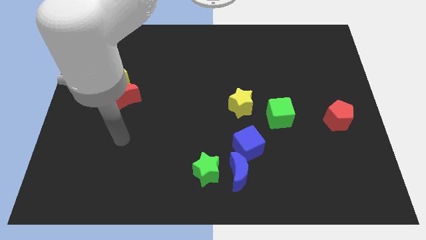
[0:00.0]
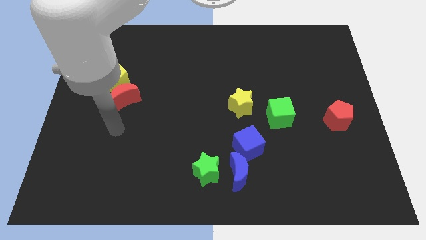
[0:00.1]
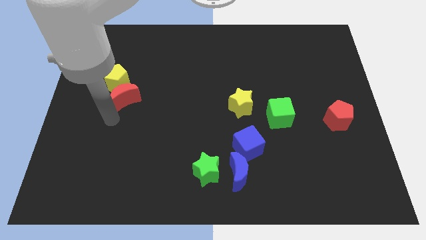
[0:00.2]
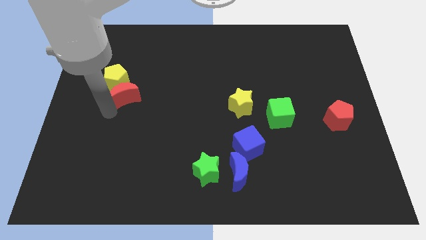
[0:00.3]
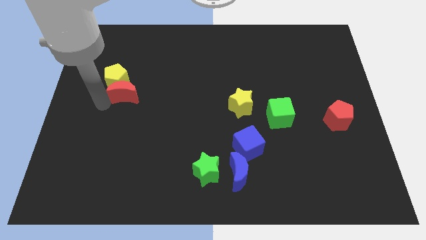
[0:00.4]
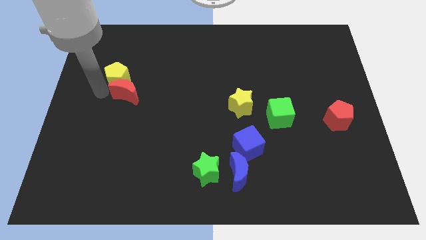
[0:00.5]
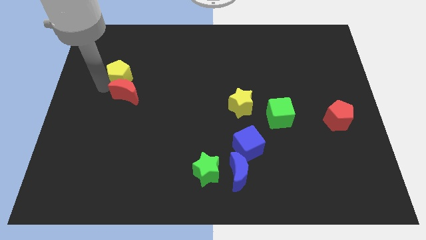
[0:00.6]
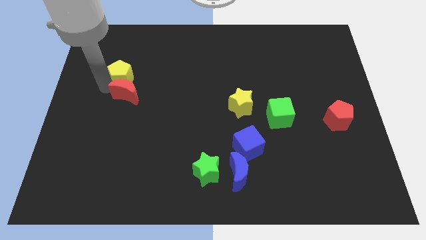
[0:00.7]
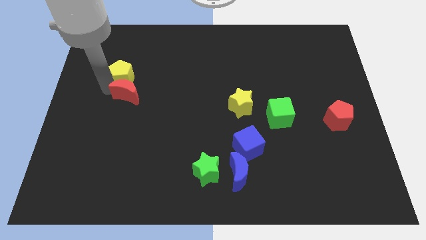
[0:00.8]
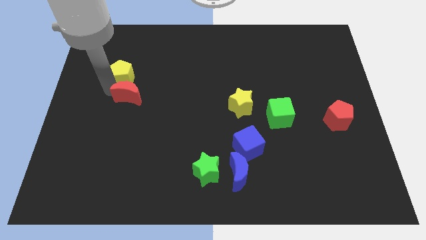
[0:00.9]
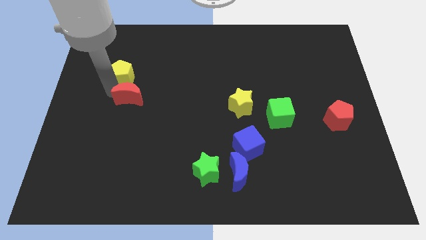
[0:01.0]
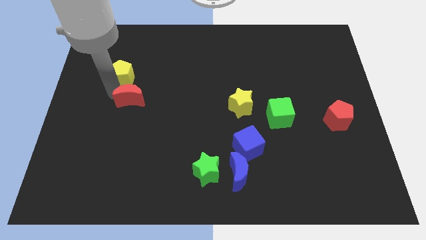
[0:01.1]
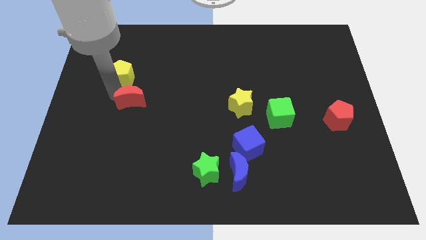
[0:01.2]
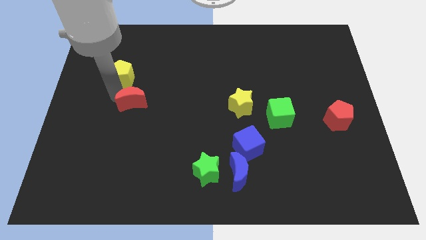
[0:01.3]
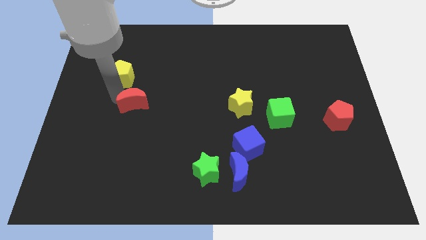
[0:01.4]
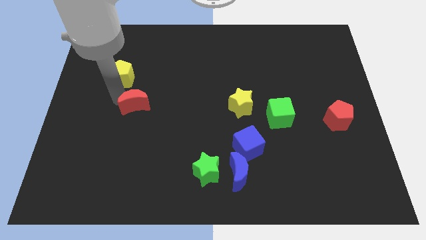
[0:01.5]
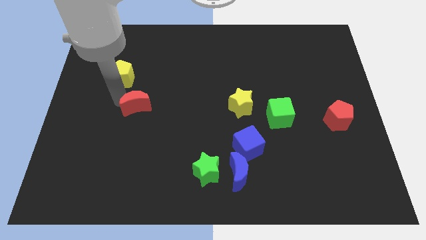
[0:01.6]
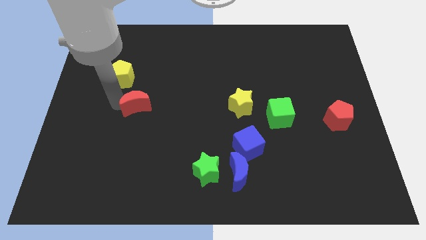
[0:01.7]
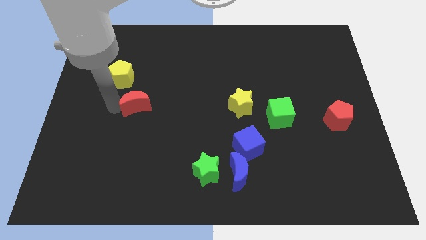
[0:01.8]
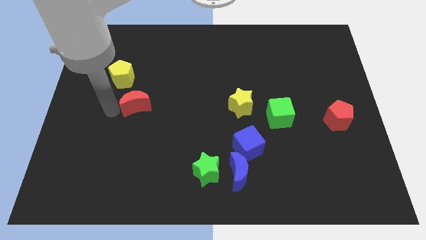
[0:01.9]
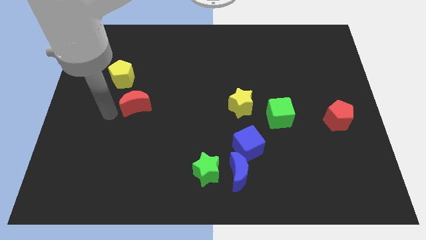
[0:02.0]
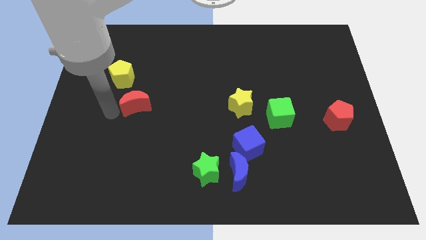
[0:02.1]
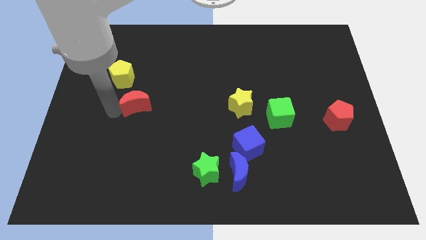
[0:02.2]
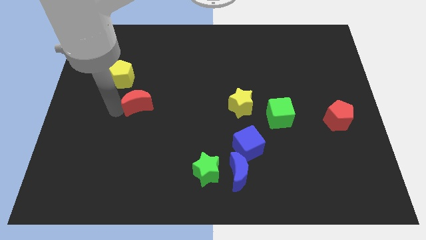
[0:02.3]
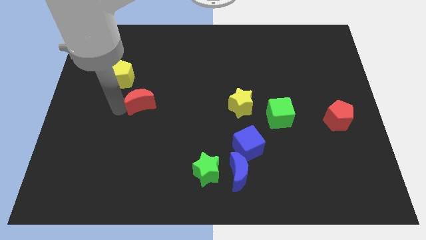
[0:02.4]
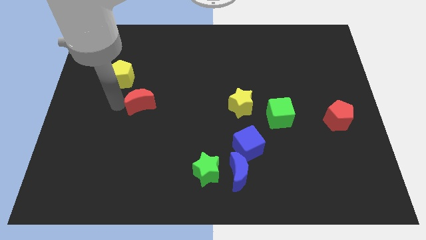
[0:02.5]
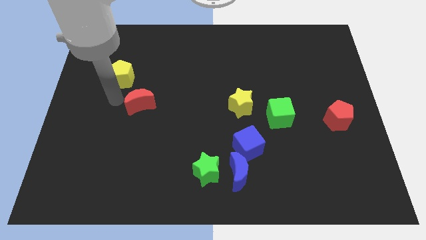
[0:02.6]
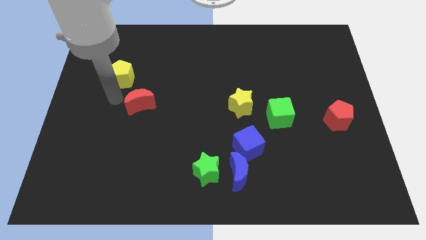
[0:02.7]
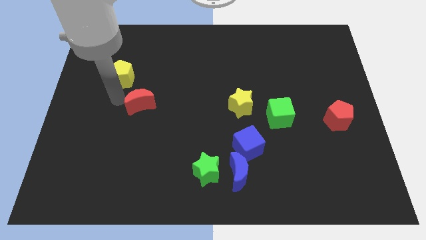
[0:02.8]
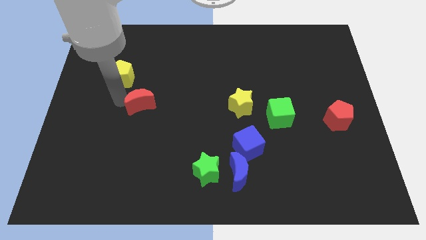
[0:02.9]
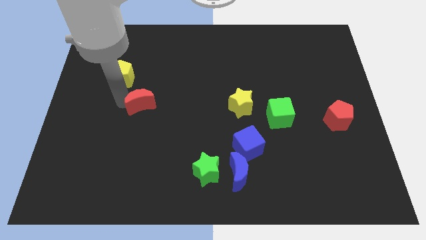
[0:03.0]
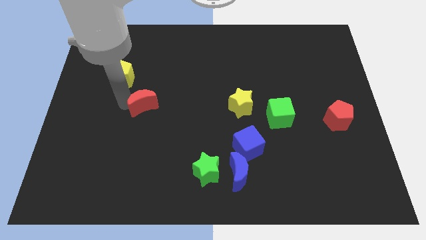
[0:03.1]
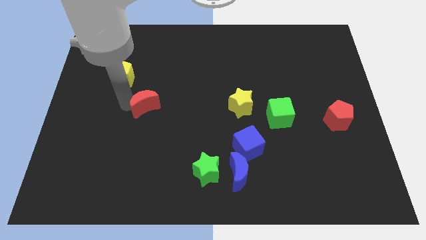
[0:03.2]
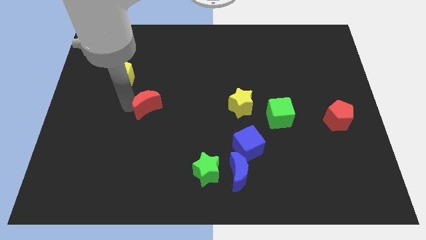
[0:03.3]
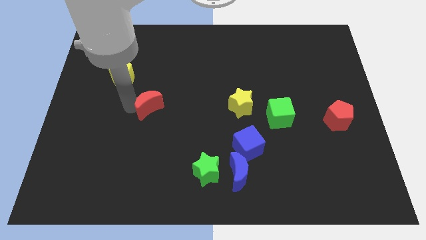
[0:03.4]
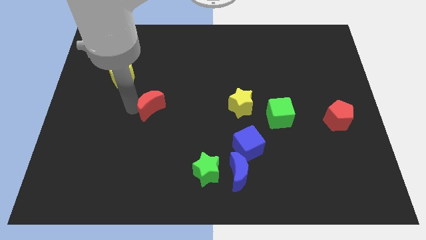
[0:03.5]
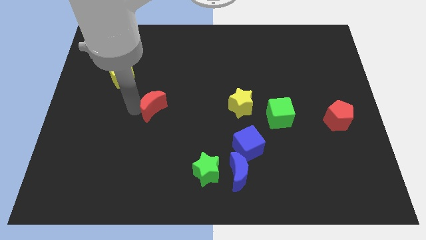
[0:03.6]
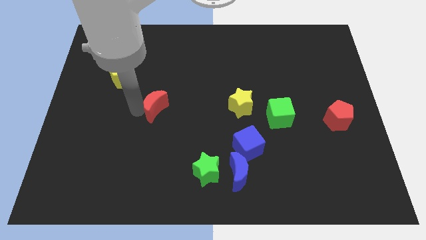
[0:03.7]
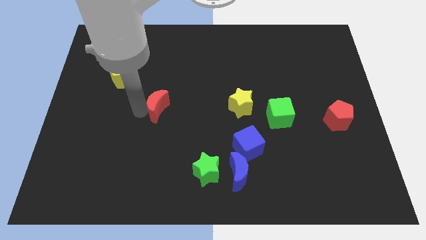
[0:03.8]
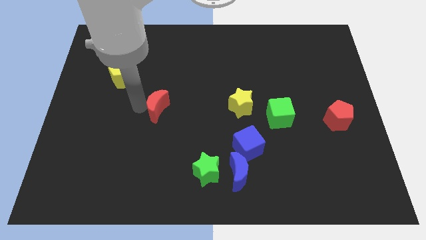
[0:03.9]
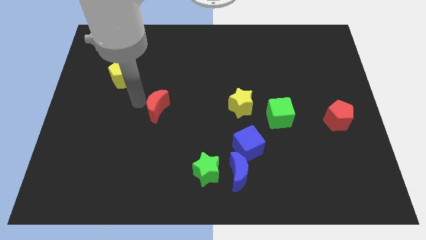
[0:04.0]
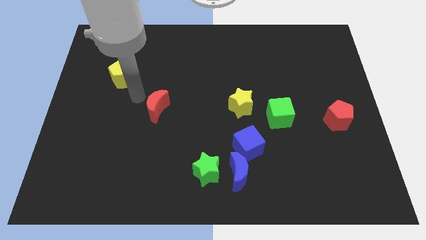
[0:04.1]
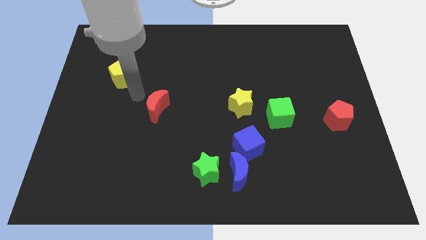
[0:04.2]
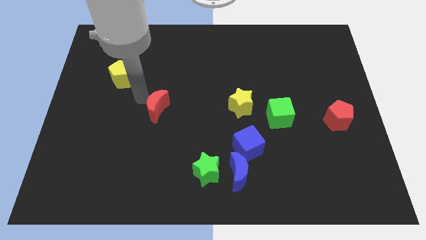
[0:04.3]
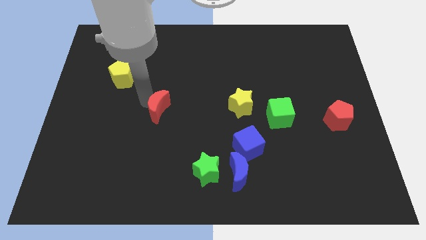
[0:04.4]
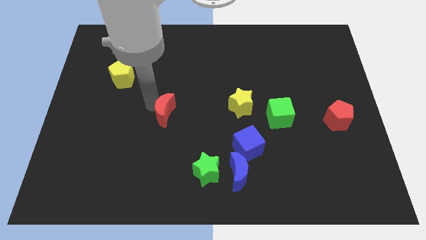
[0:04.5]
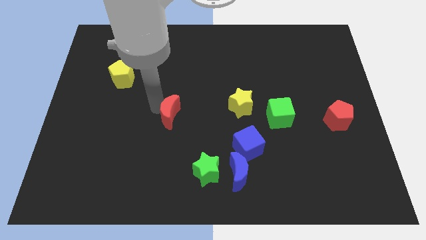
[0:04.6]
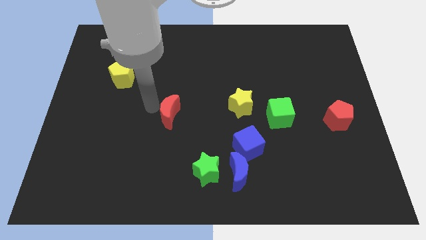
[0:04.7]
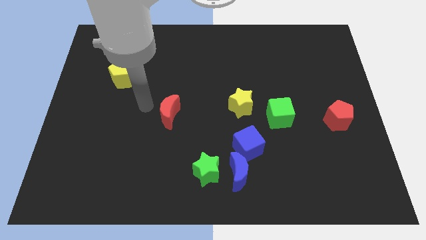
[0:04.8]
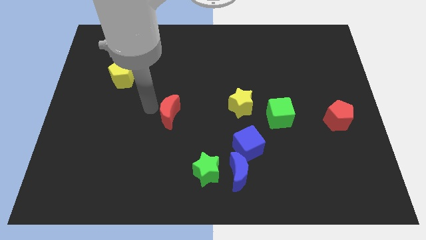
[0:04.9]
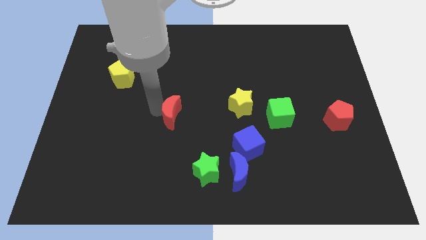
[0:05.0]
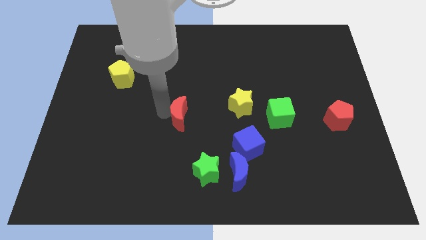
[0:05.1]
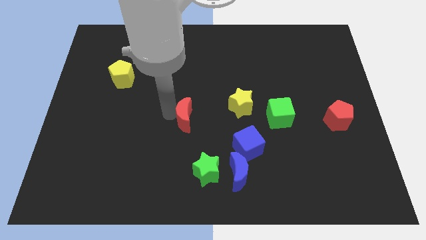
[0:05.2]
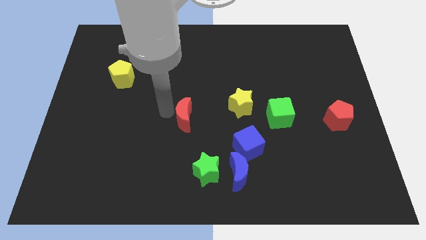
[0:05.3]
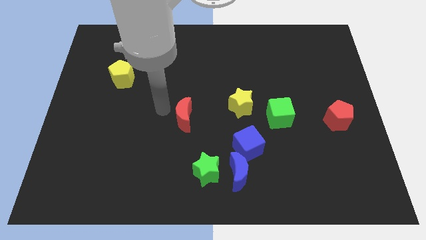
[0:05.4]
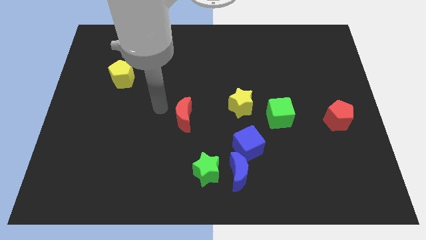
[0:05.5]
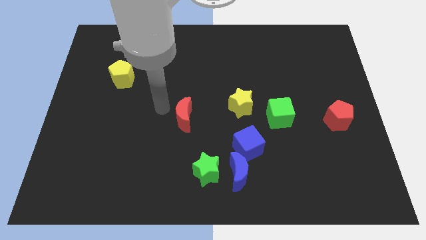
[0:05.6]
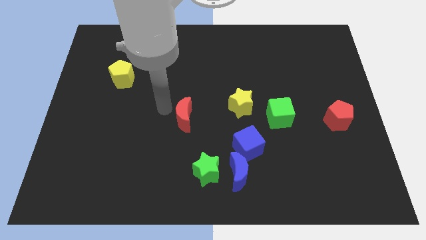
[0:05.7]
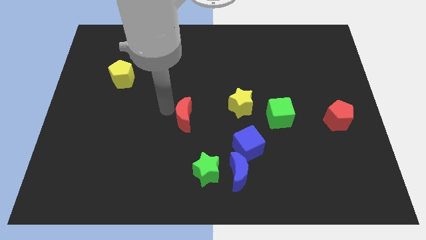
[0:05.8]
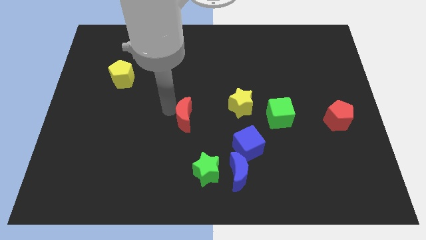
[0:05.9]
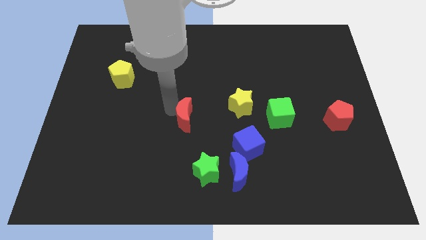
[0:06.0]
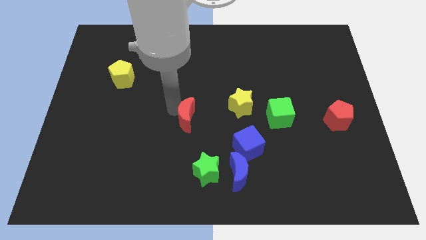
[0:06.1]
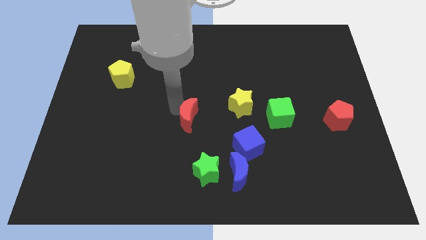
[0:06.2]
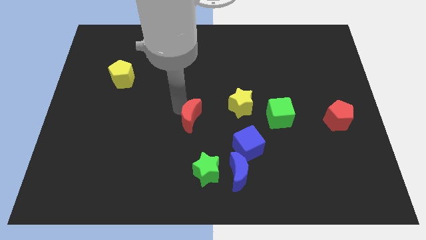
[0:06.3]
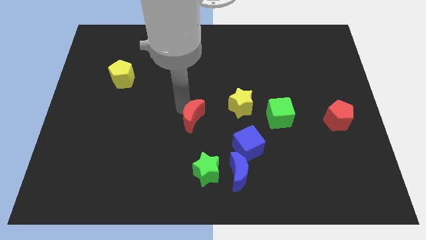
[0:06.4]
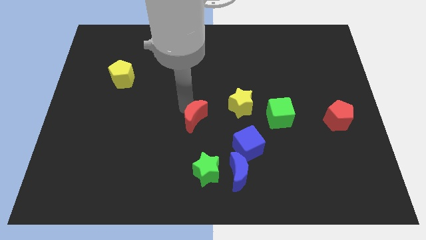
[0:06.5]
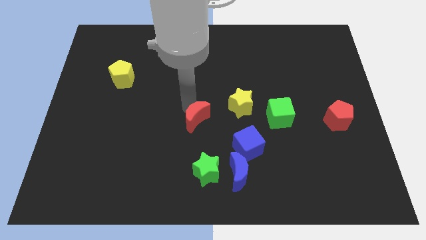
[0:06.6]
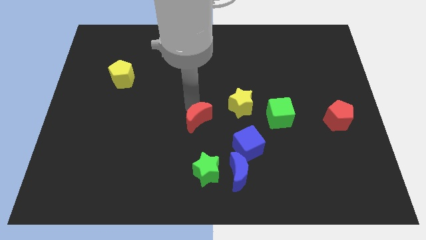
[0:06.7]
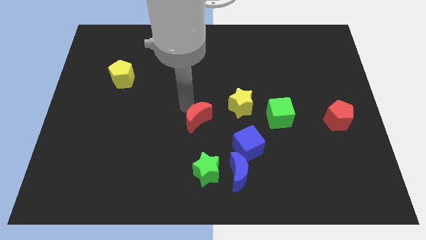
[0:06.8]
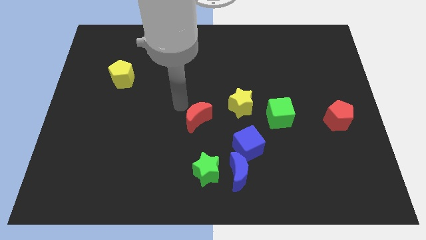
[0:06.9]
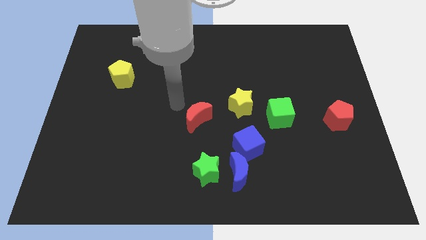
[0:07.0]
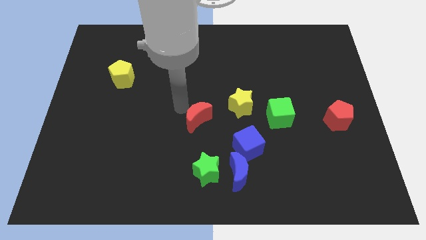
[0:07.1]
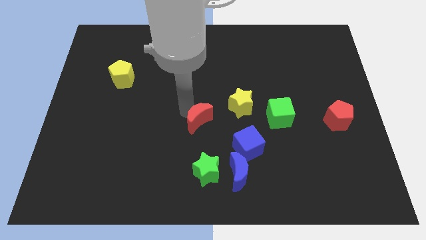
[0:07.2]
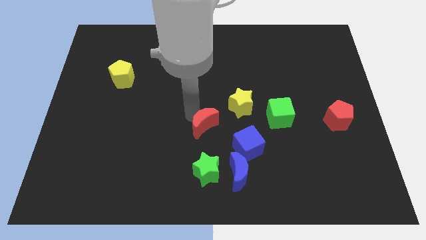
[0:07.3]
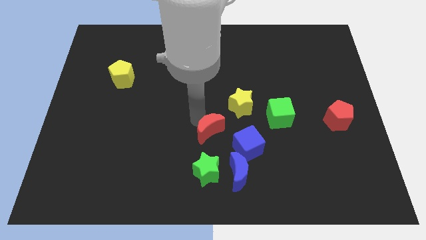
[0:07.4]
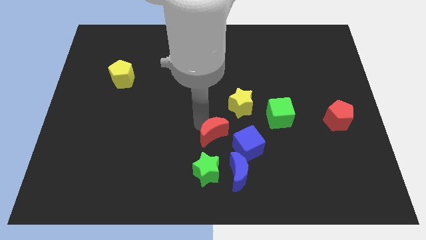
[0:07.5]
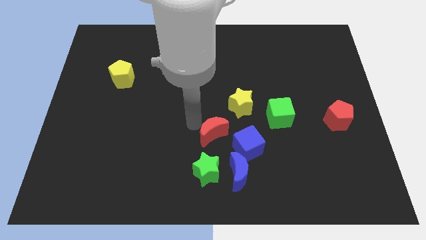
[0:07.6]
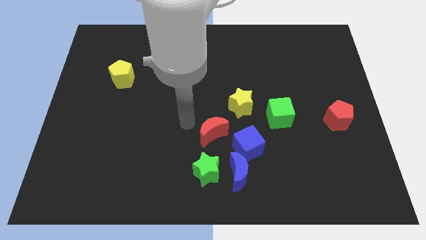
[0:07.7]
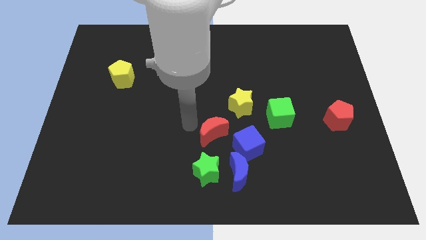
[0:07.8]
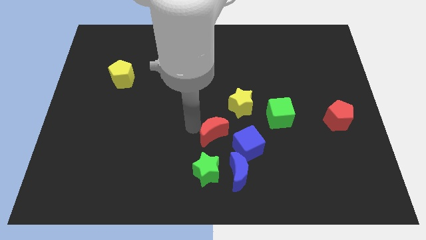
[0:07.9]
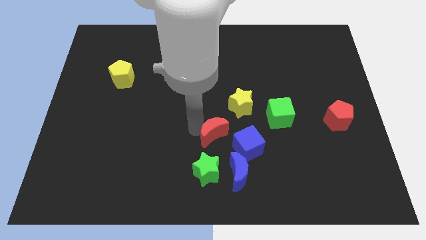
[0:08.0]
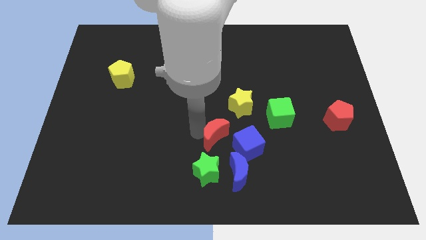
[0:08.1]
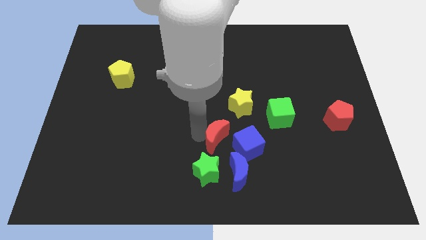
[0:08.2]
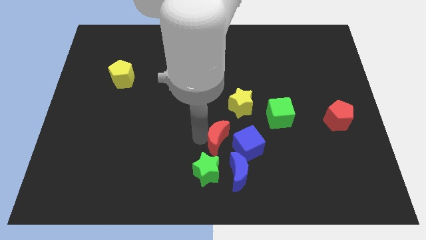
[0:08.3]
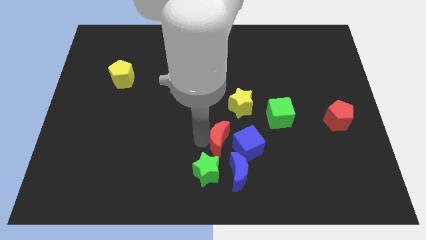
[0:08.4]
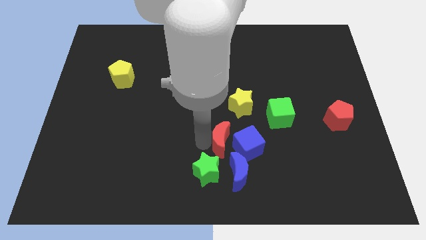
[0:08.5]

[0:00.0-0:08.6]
put the red moon close to the blue cube
